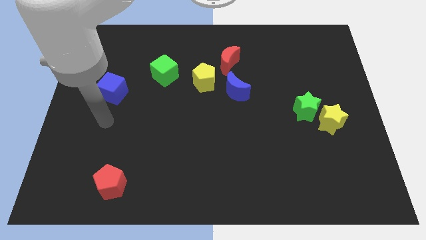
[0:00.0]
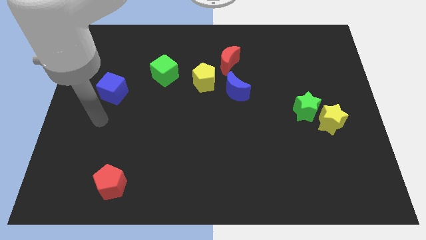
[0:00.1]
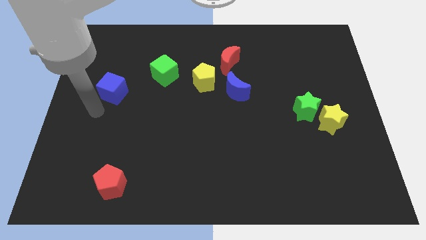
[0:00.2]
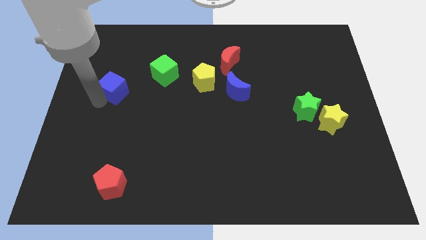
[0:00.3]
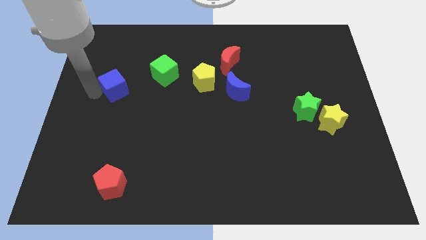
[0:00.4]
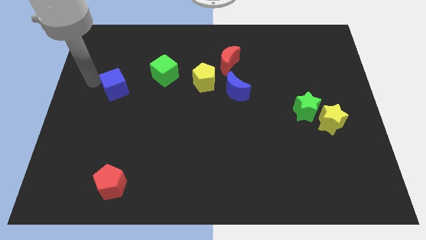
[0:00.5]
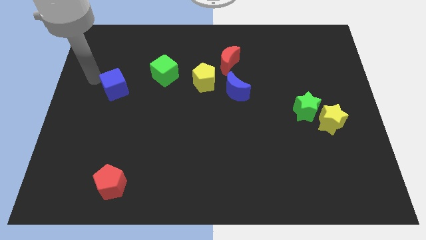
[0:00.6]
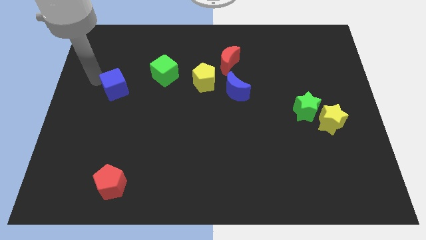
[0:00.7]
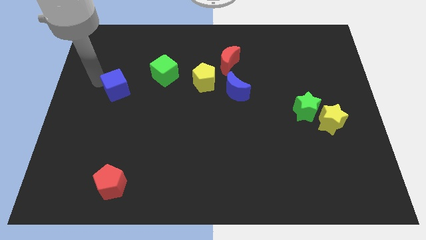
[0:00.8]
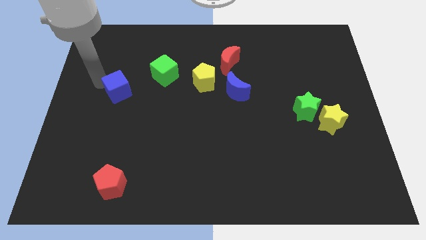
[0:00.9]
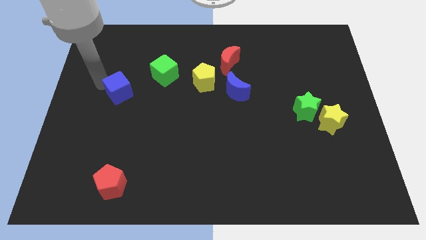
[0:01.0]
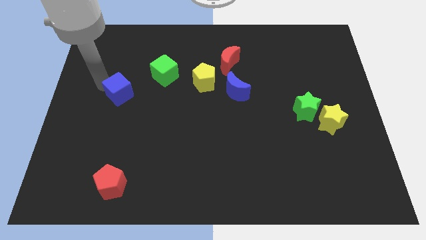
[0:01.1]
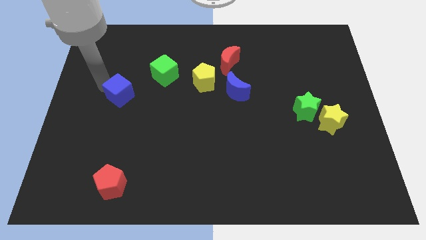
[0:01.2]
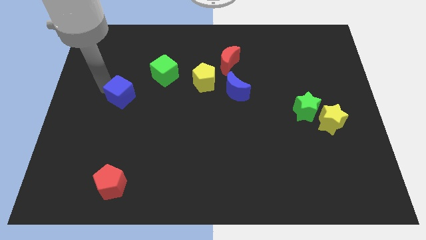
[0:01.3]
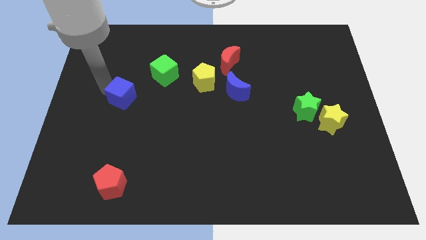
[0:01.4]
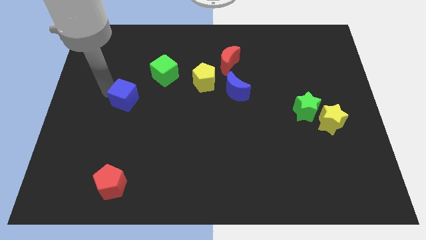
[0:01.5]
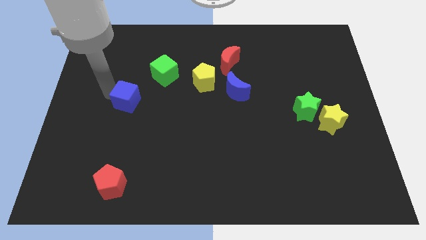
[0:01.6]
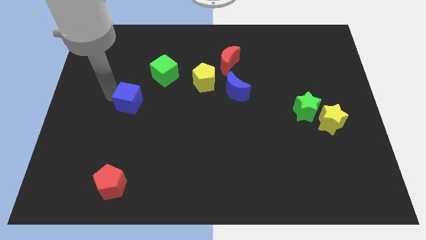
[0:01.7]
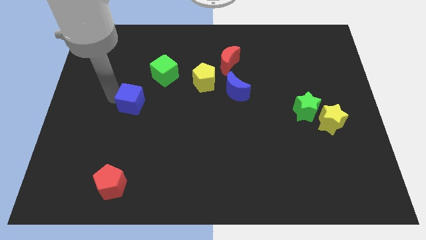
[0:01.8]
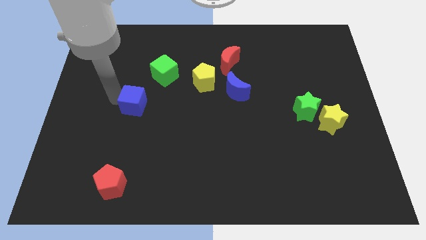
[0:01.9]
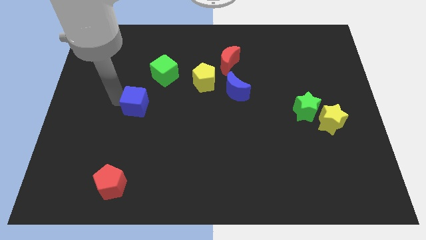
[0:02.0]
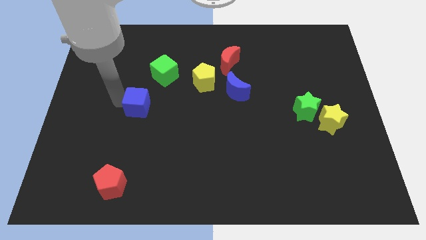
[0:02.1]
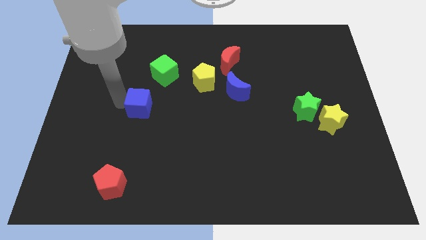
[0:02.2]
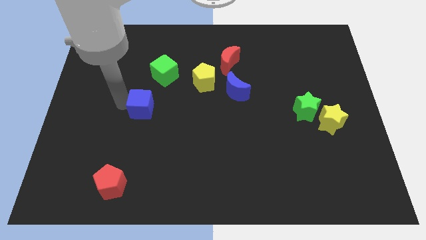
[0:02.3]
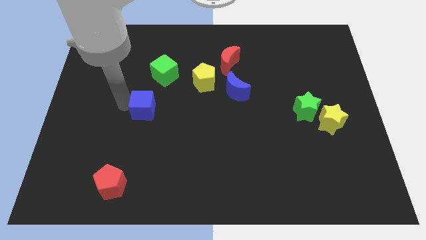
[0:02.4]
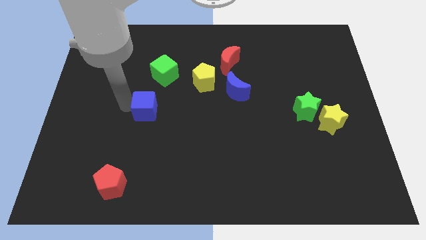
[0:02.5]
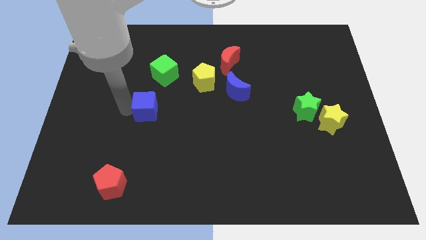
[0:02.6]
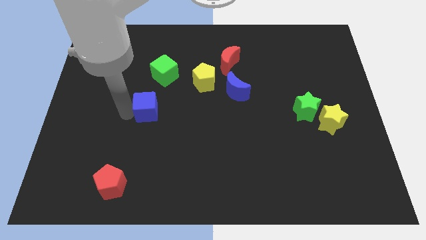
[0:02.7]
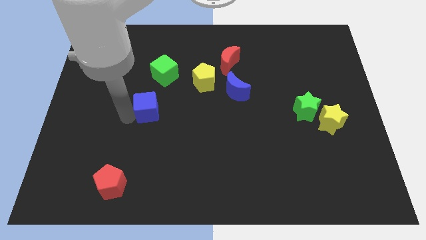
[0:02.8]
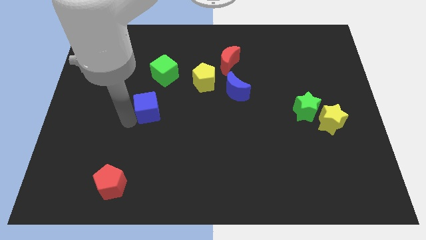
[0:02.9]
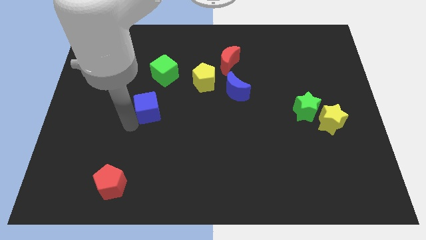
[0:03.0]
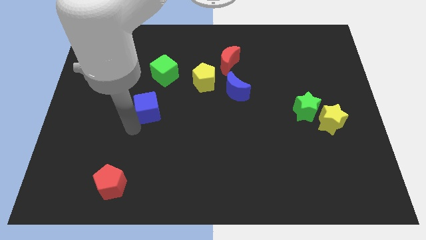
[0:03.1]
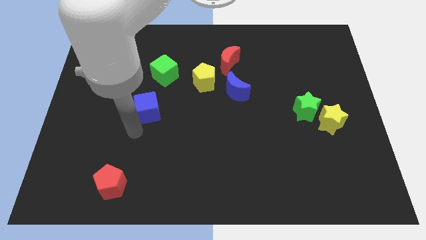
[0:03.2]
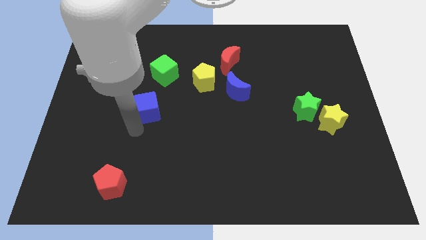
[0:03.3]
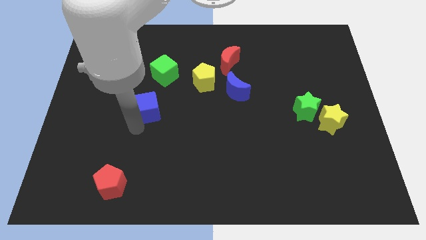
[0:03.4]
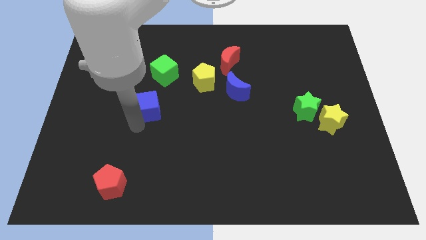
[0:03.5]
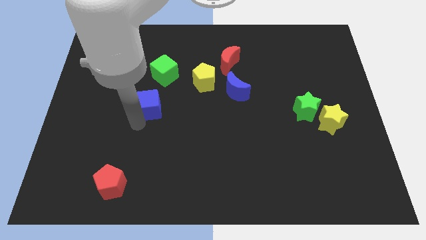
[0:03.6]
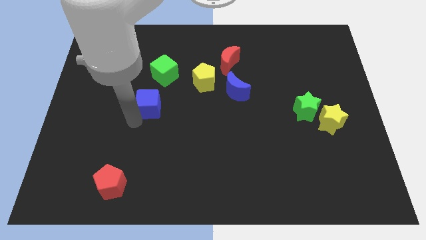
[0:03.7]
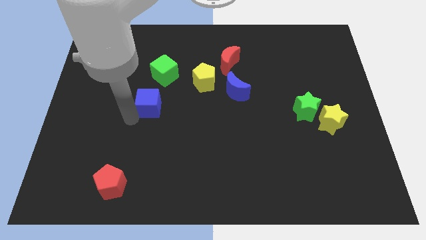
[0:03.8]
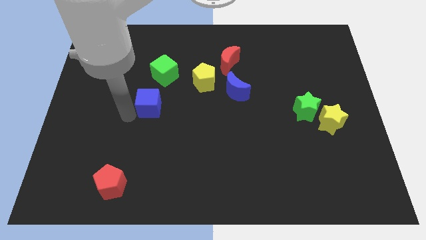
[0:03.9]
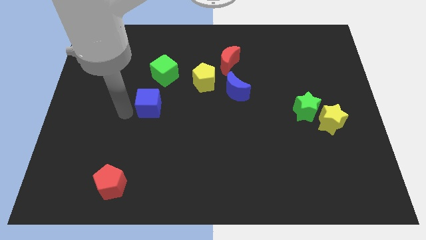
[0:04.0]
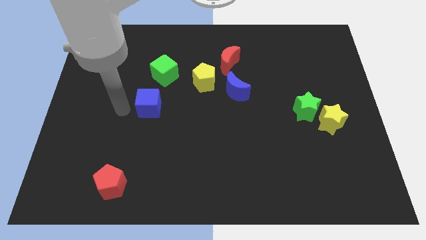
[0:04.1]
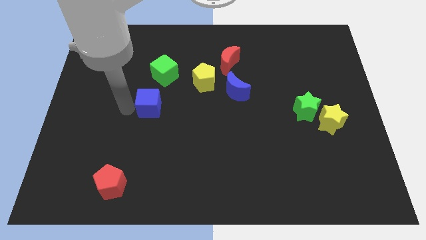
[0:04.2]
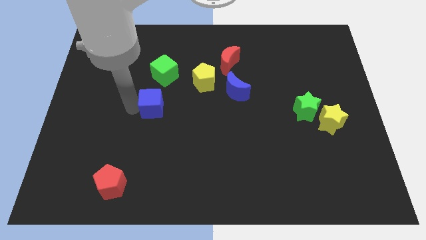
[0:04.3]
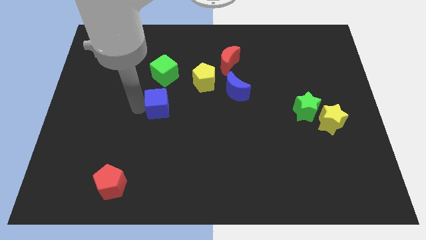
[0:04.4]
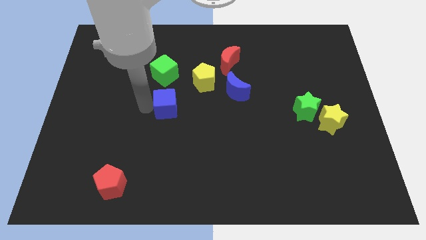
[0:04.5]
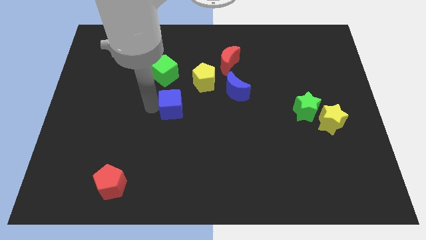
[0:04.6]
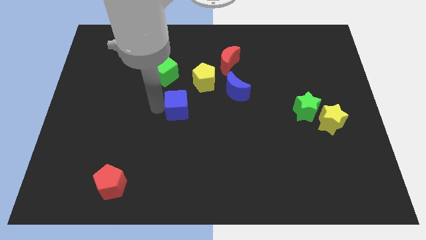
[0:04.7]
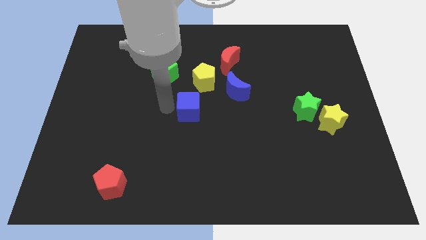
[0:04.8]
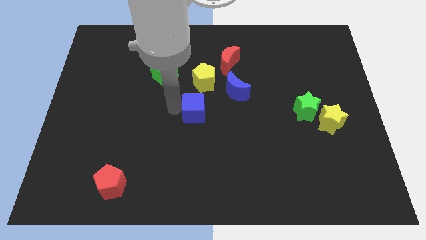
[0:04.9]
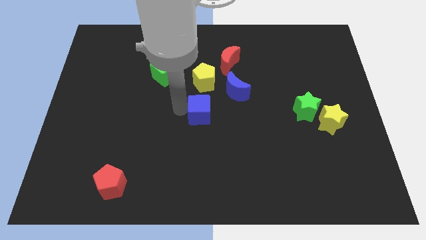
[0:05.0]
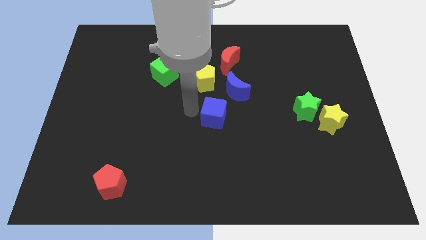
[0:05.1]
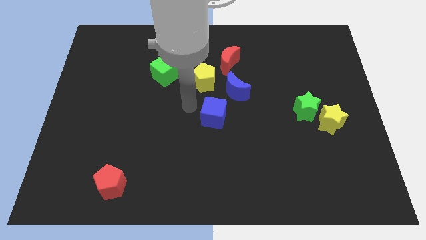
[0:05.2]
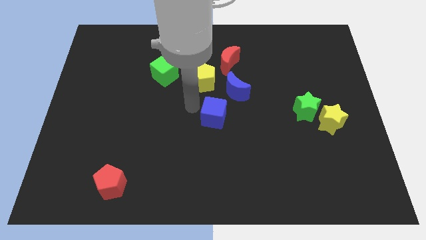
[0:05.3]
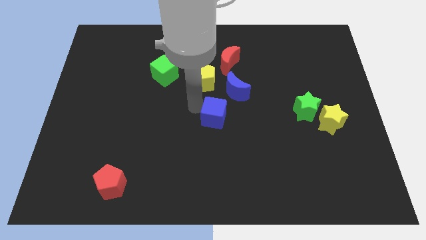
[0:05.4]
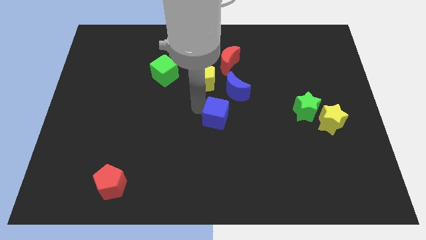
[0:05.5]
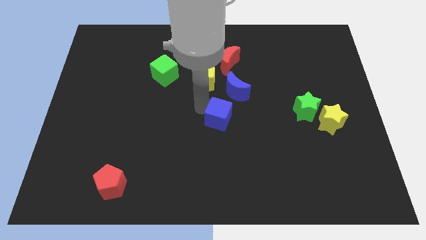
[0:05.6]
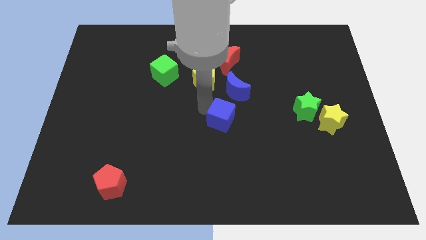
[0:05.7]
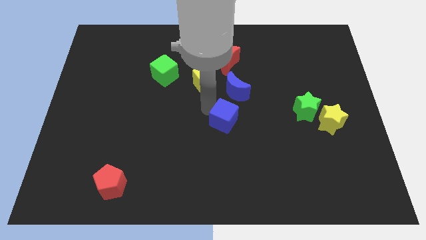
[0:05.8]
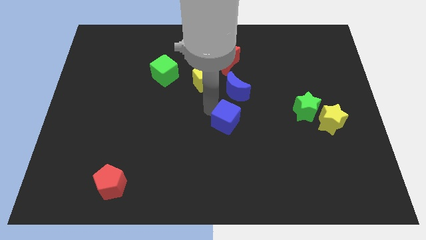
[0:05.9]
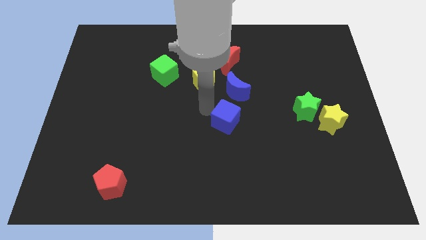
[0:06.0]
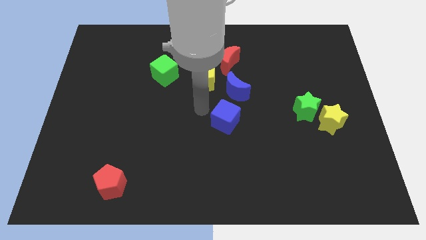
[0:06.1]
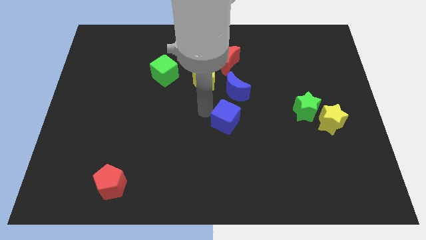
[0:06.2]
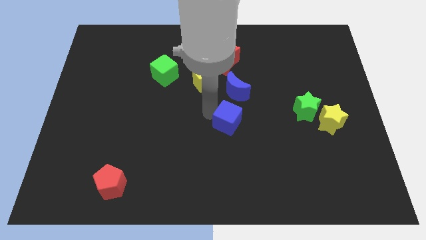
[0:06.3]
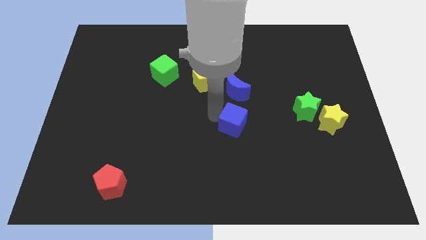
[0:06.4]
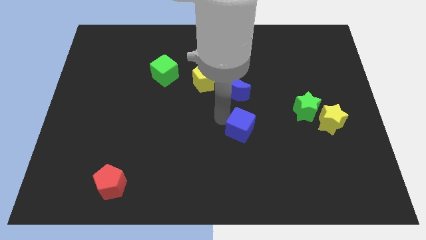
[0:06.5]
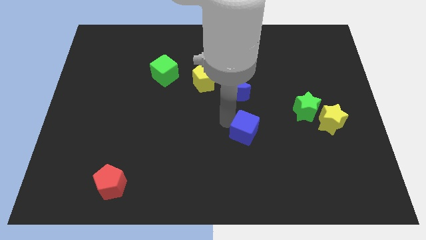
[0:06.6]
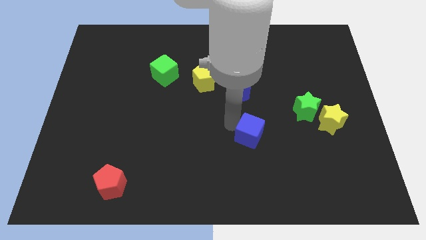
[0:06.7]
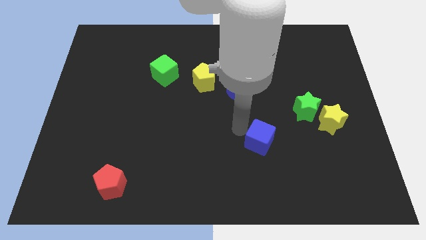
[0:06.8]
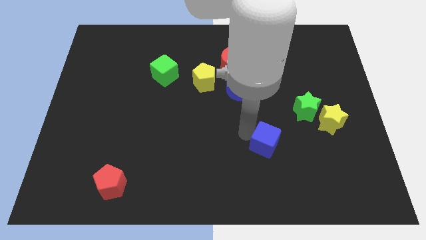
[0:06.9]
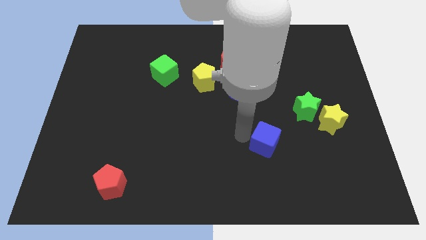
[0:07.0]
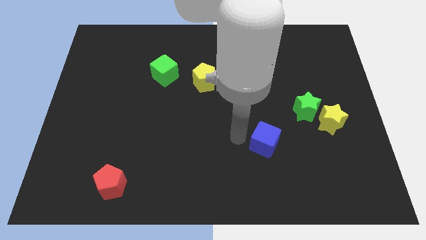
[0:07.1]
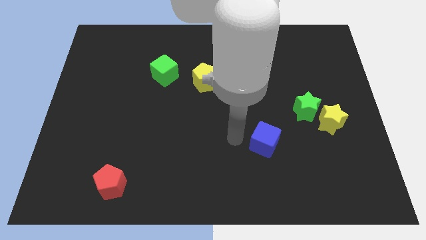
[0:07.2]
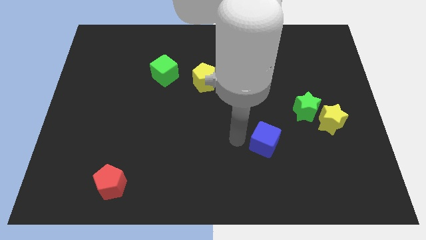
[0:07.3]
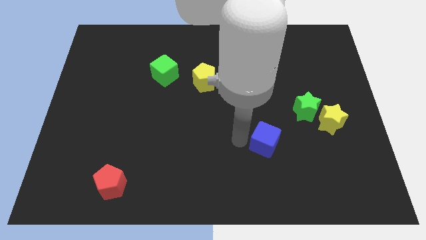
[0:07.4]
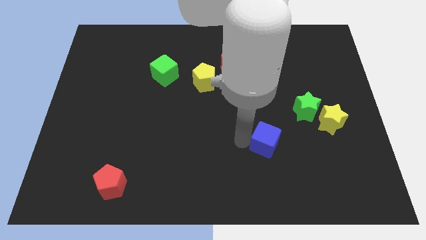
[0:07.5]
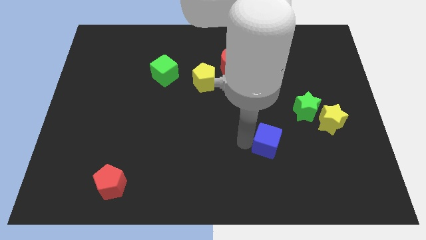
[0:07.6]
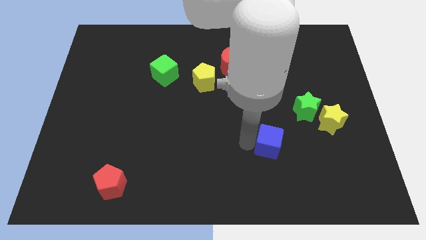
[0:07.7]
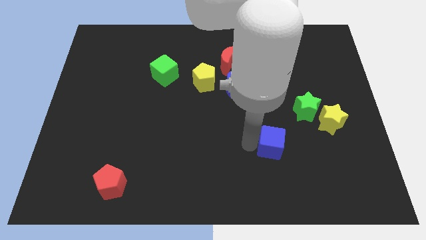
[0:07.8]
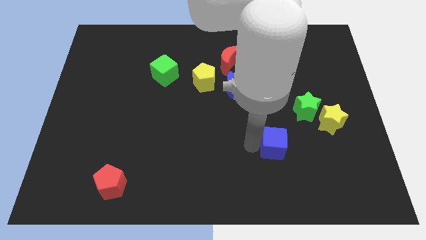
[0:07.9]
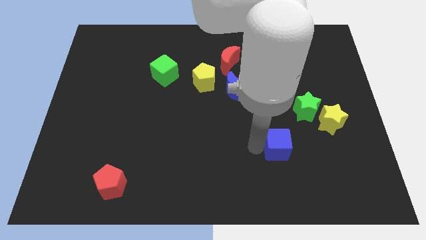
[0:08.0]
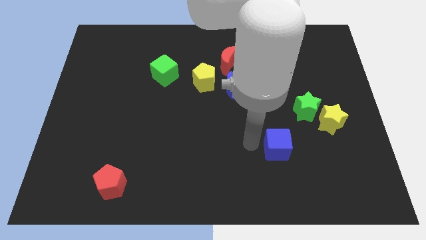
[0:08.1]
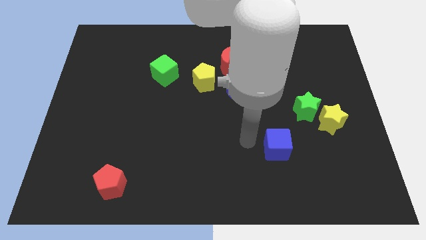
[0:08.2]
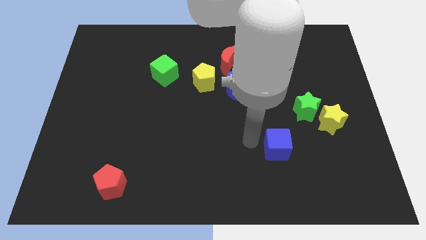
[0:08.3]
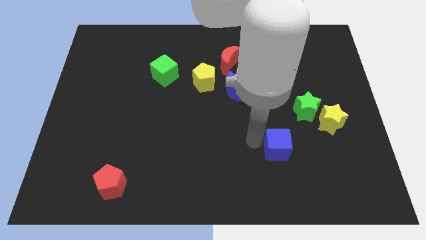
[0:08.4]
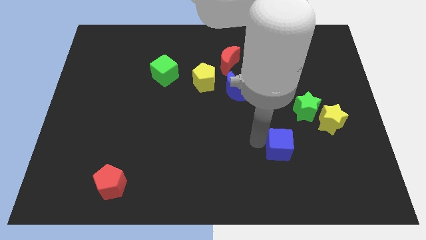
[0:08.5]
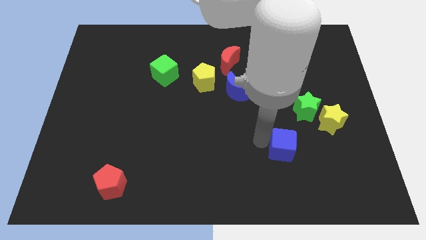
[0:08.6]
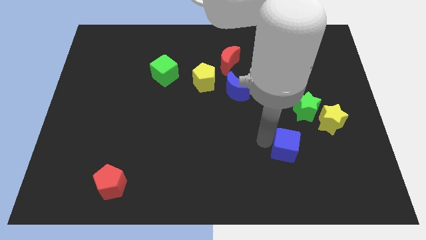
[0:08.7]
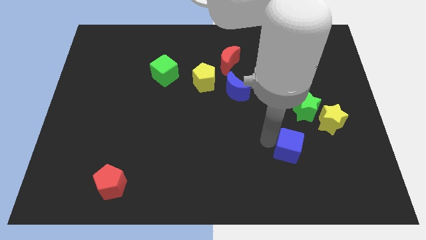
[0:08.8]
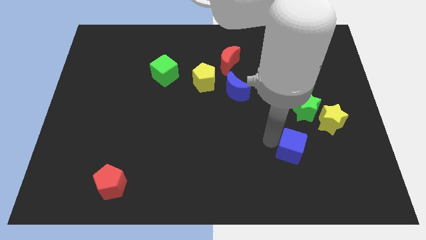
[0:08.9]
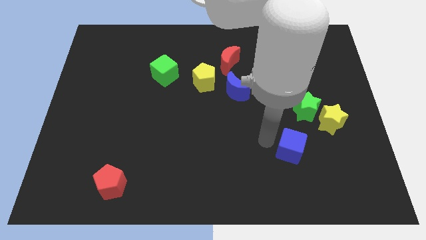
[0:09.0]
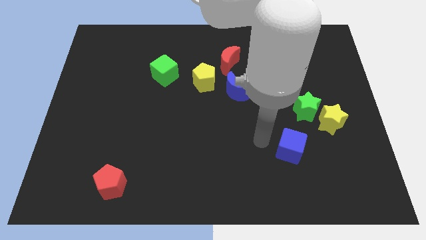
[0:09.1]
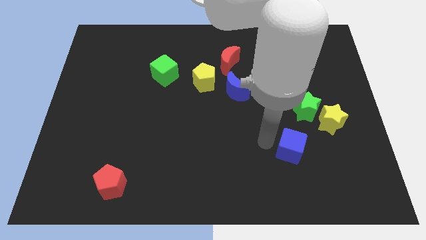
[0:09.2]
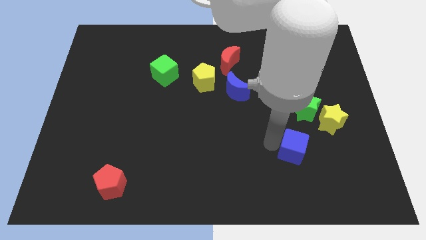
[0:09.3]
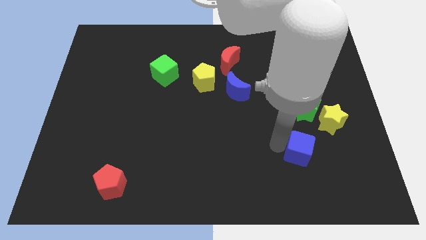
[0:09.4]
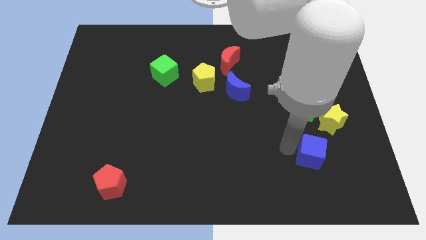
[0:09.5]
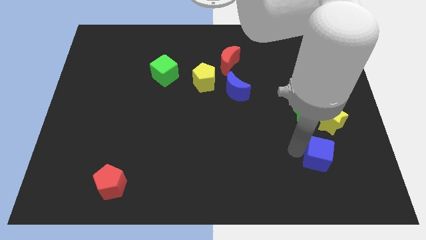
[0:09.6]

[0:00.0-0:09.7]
push the blue cube to the bottom of the yellow star
